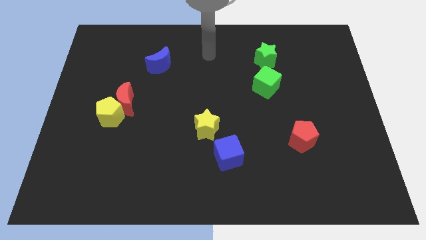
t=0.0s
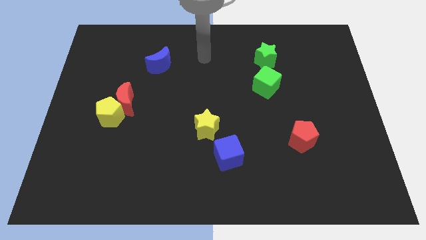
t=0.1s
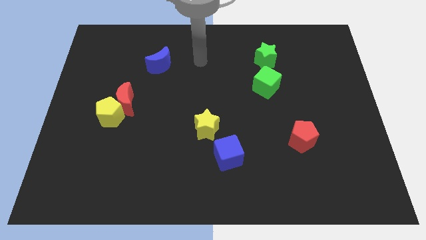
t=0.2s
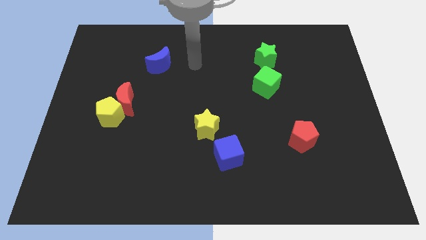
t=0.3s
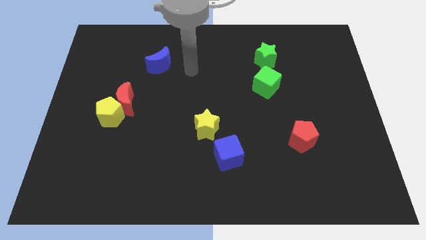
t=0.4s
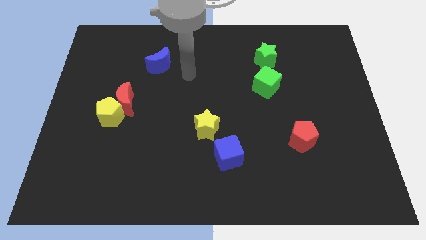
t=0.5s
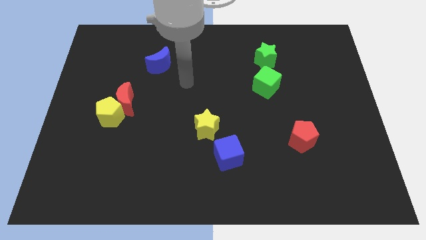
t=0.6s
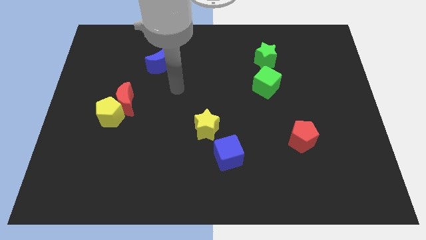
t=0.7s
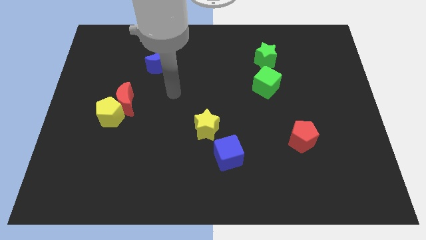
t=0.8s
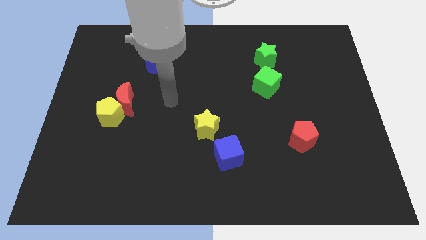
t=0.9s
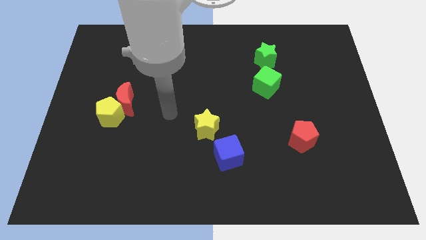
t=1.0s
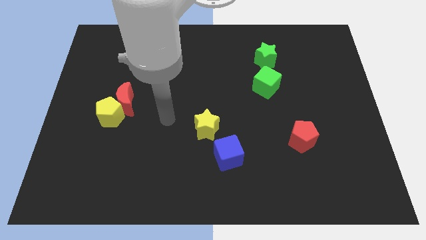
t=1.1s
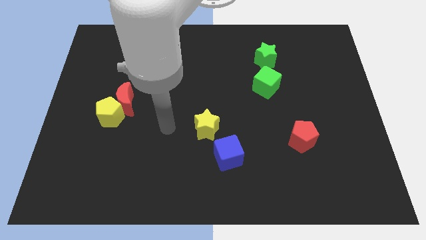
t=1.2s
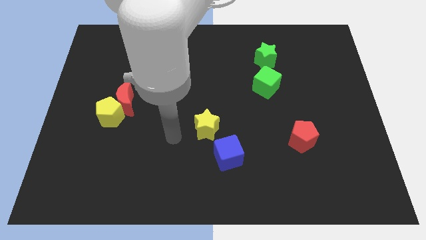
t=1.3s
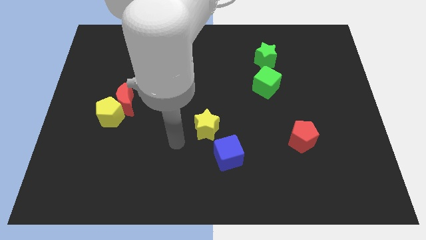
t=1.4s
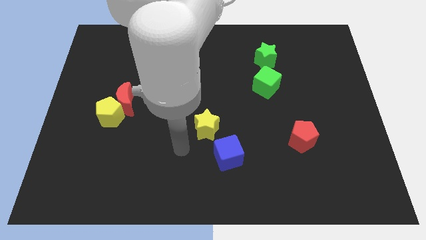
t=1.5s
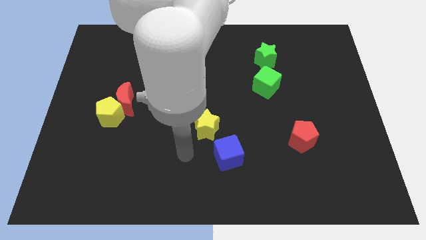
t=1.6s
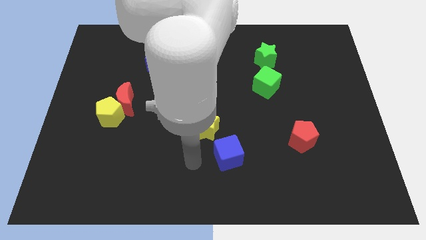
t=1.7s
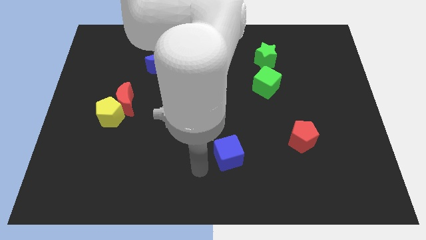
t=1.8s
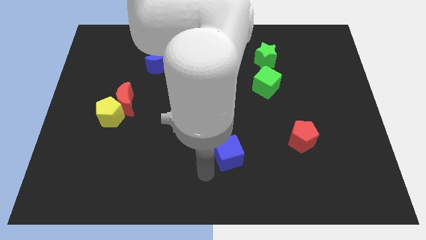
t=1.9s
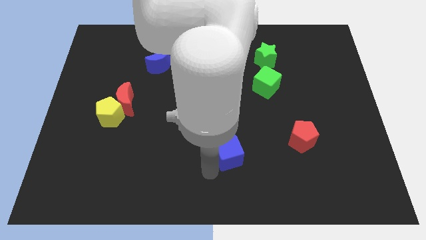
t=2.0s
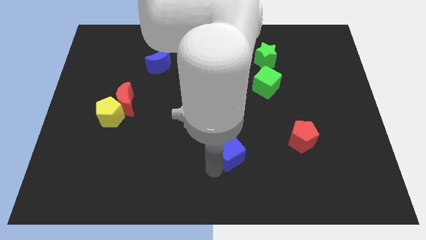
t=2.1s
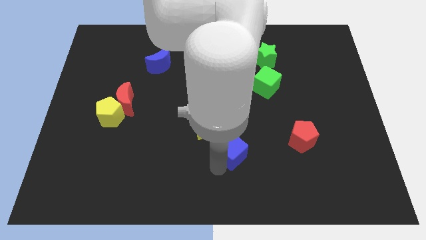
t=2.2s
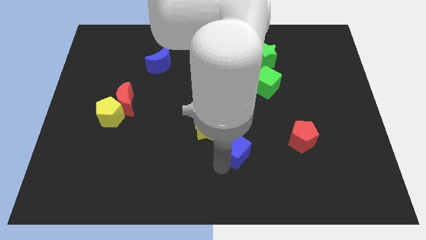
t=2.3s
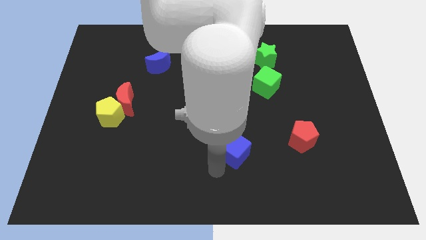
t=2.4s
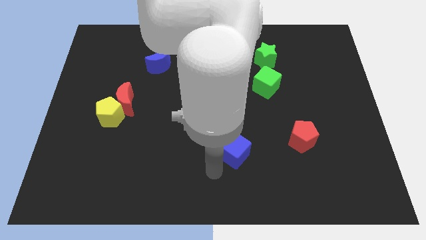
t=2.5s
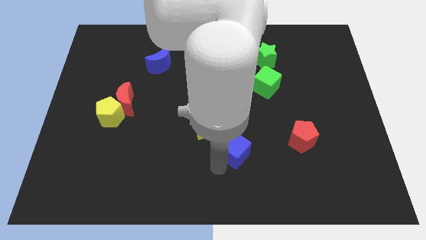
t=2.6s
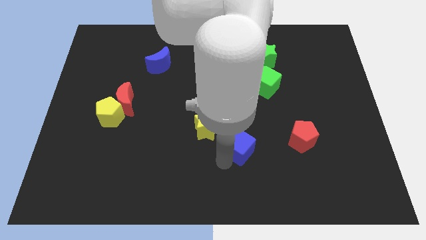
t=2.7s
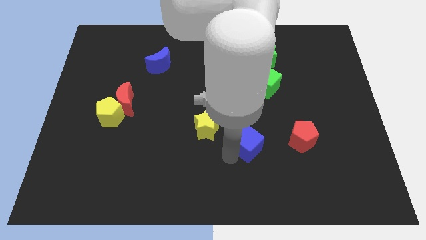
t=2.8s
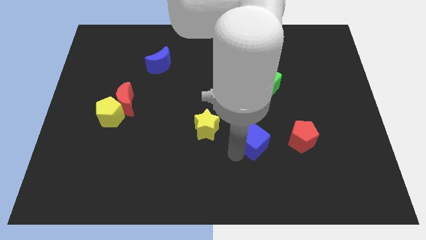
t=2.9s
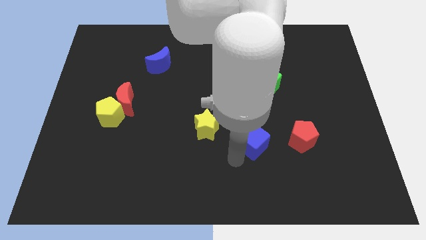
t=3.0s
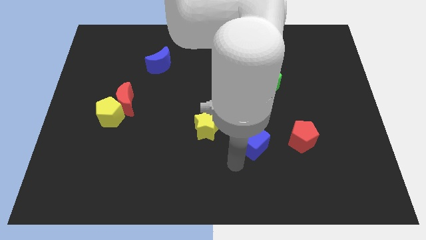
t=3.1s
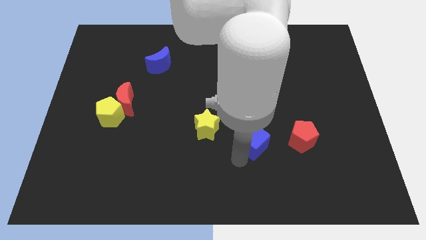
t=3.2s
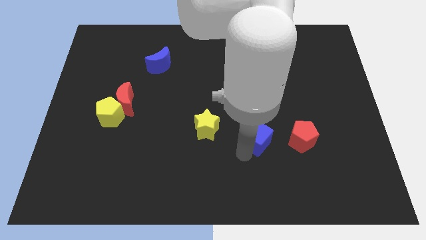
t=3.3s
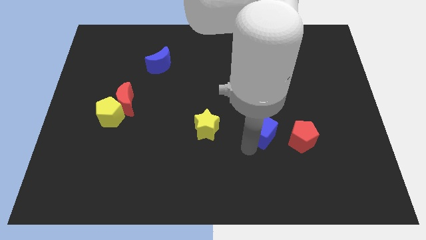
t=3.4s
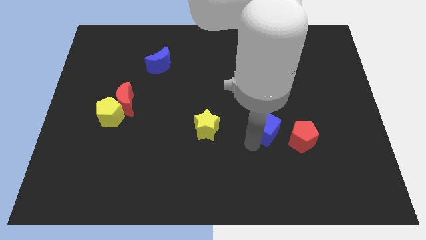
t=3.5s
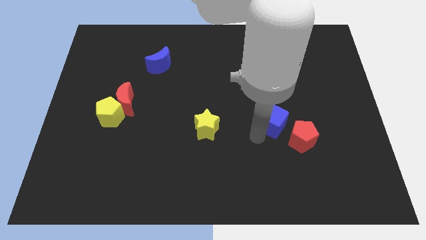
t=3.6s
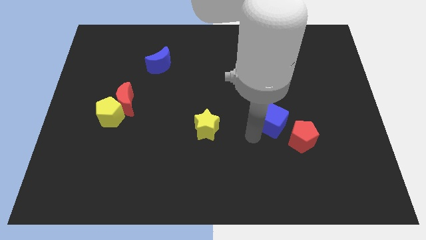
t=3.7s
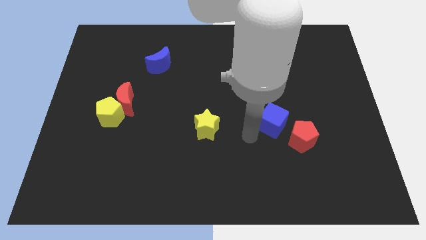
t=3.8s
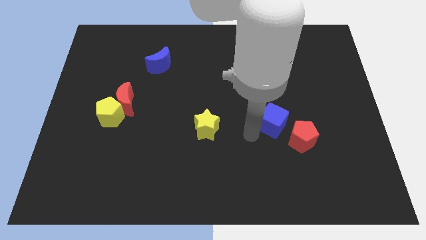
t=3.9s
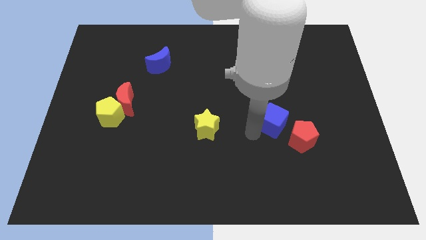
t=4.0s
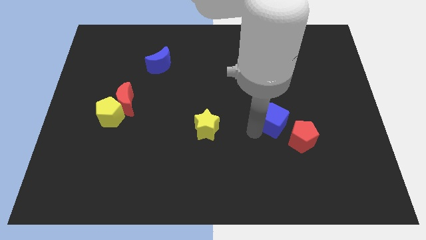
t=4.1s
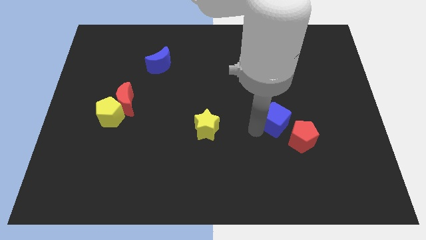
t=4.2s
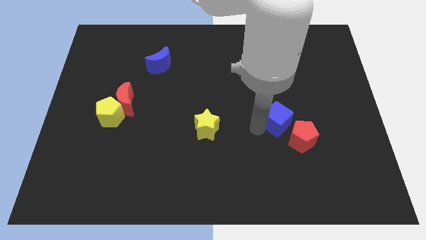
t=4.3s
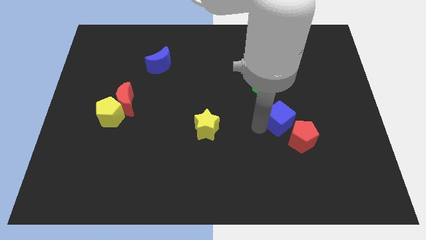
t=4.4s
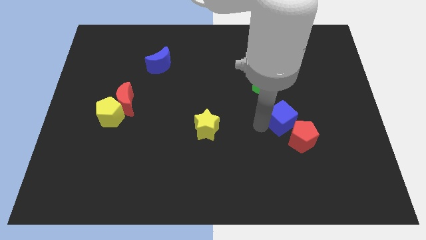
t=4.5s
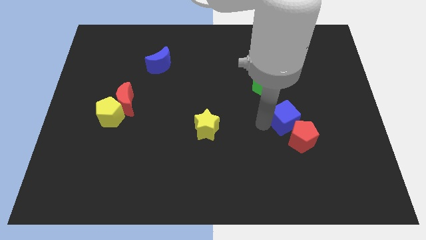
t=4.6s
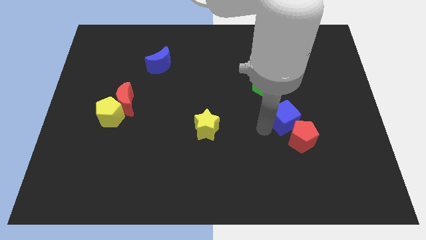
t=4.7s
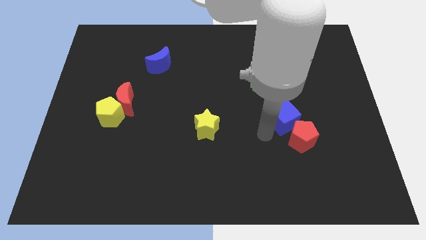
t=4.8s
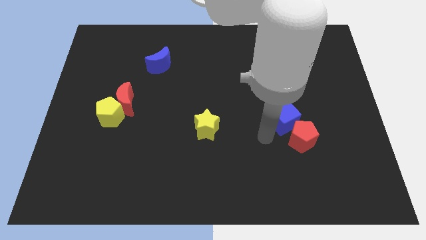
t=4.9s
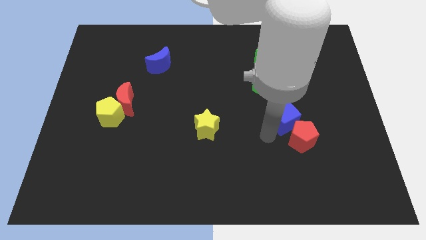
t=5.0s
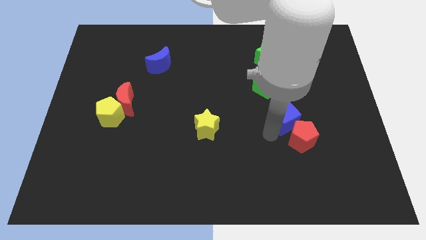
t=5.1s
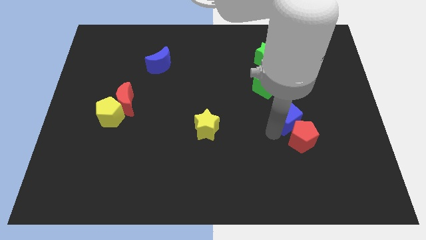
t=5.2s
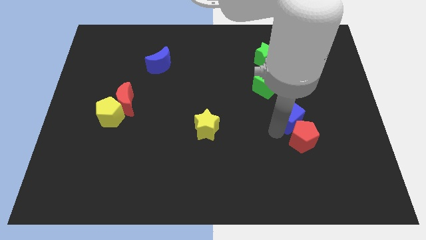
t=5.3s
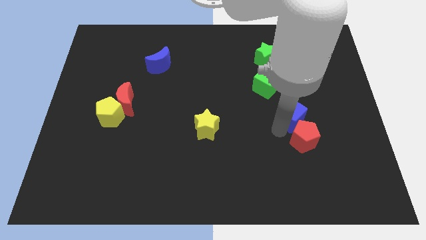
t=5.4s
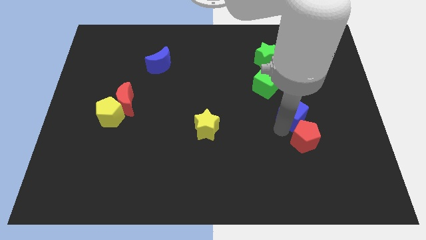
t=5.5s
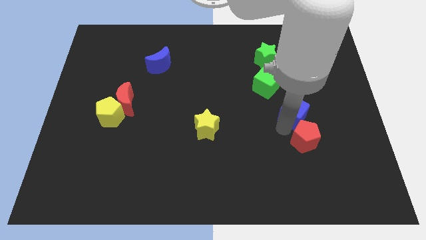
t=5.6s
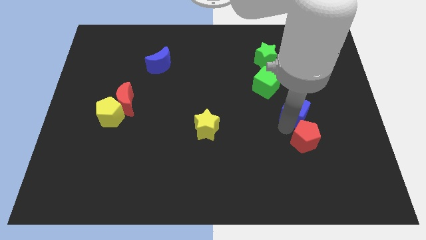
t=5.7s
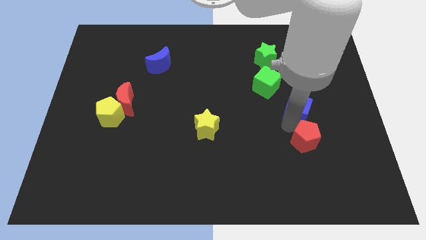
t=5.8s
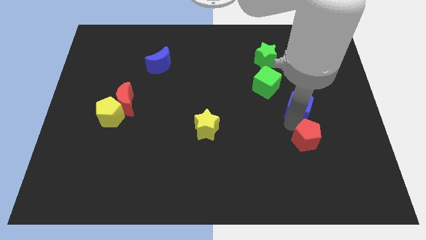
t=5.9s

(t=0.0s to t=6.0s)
slide the blue cube diagonally upwards and right

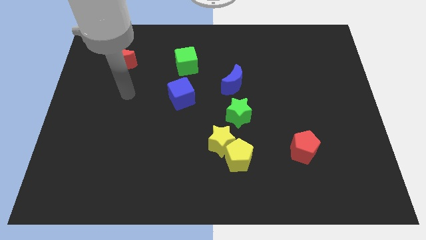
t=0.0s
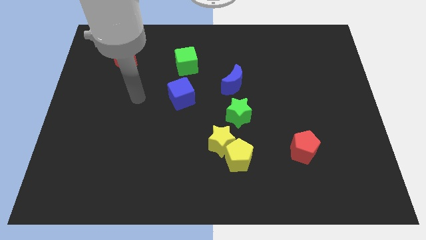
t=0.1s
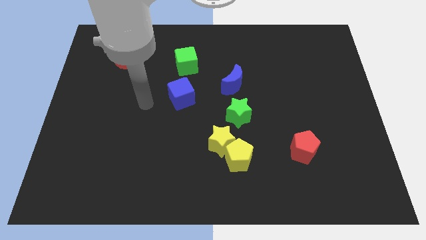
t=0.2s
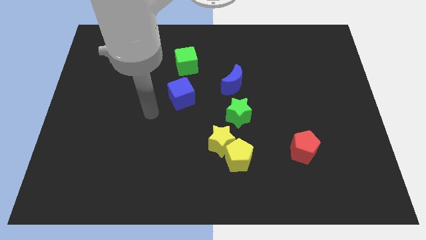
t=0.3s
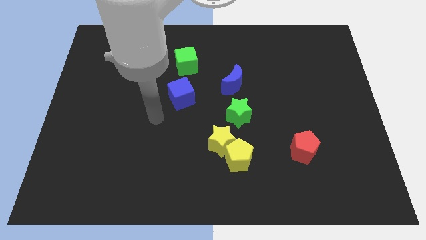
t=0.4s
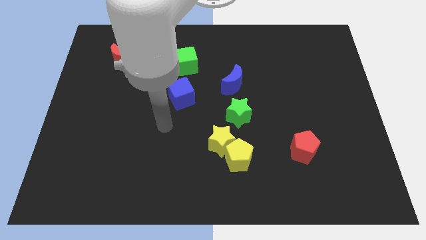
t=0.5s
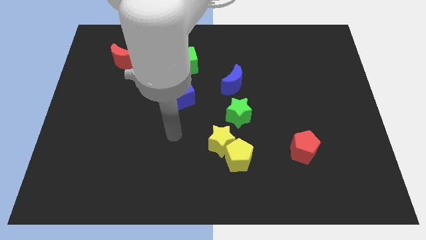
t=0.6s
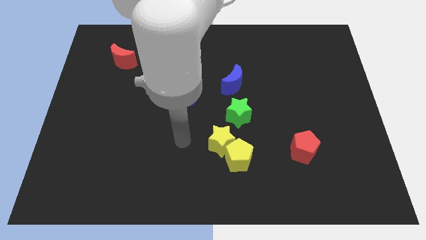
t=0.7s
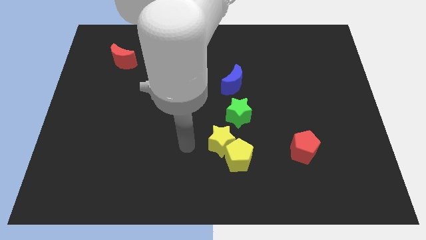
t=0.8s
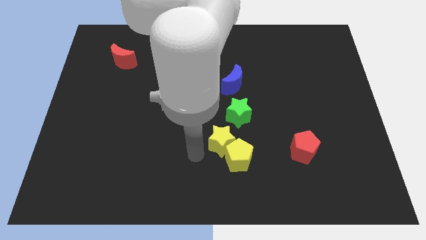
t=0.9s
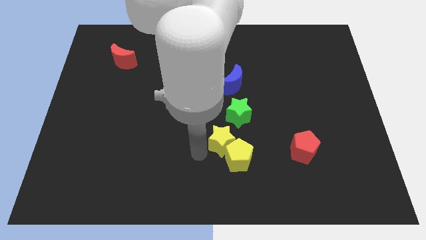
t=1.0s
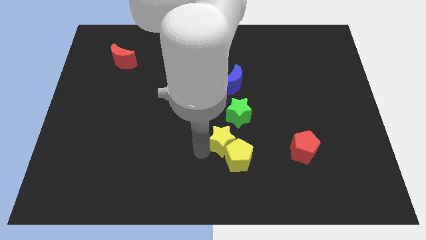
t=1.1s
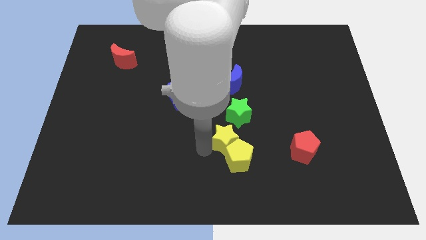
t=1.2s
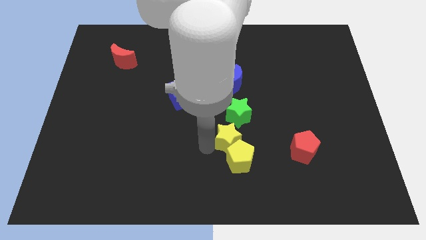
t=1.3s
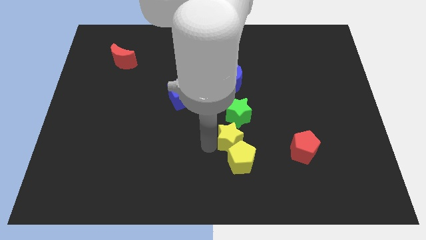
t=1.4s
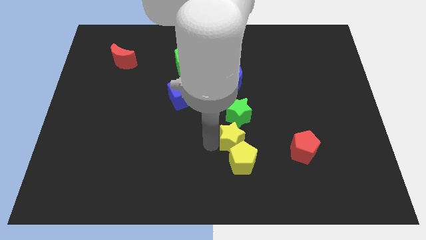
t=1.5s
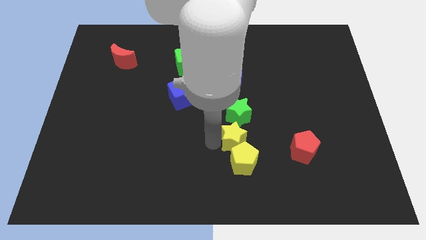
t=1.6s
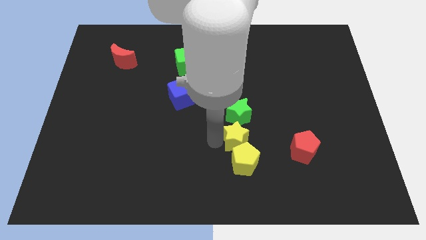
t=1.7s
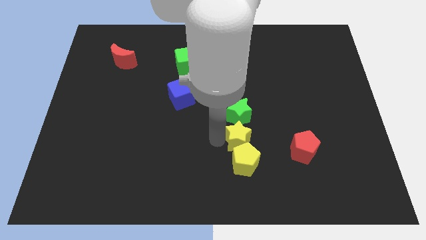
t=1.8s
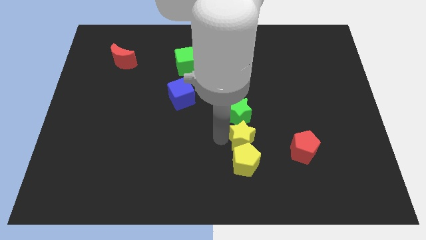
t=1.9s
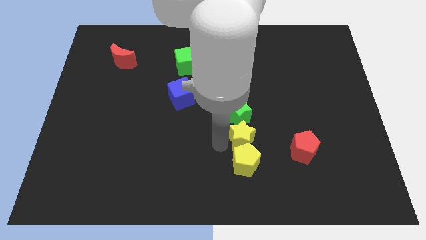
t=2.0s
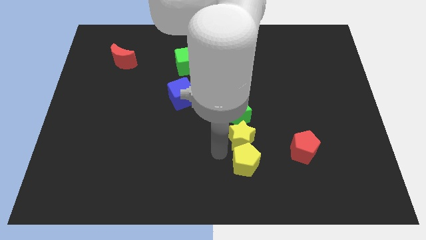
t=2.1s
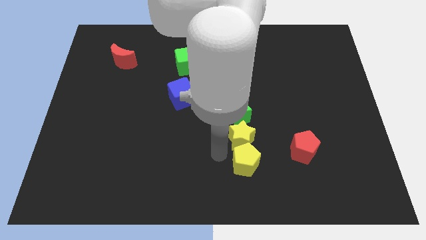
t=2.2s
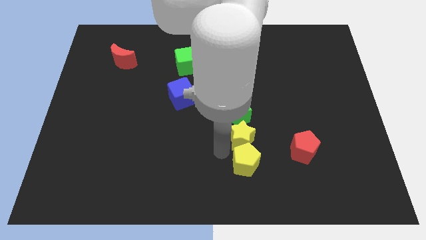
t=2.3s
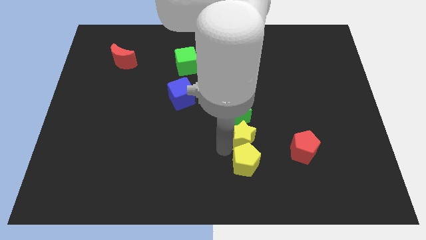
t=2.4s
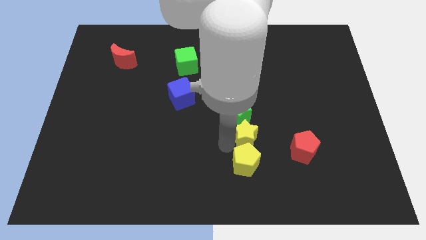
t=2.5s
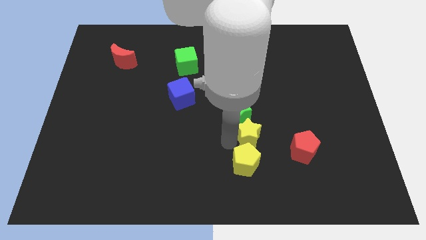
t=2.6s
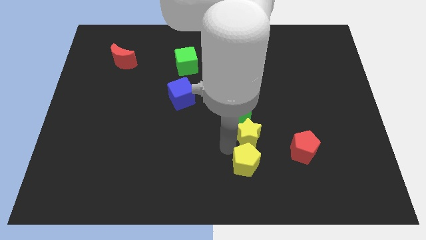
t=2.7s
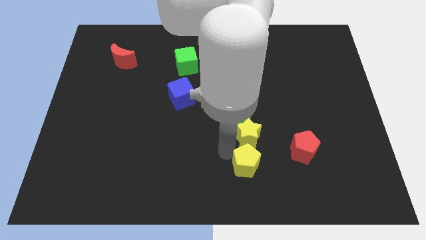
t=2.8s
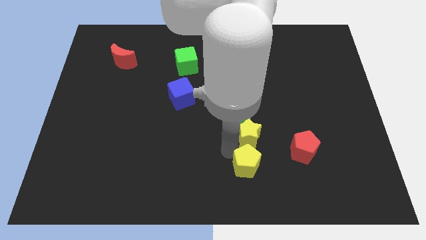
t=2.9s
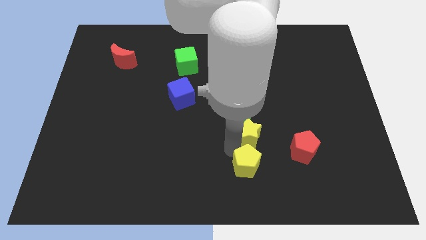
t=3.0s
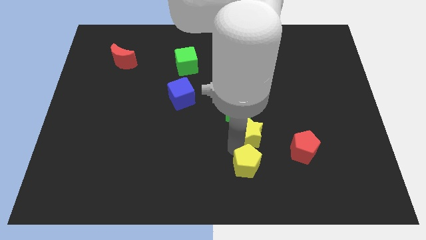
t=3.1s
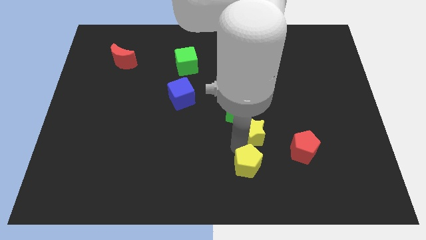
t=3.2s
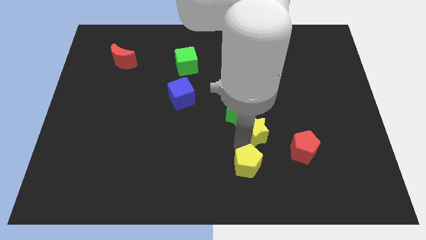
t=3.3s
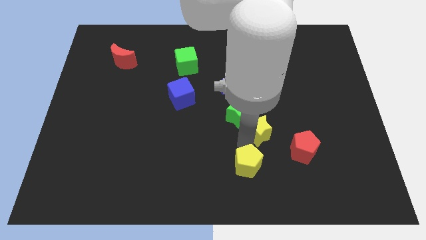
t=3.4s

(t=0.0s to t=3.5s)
slightly slide the yellow star up and right diagonally
